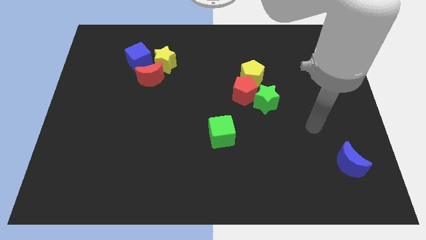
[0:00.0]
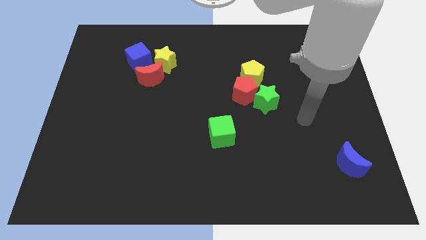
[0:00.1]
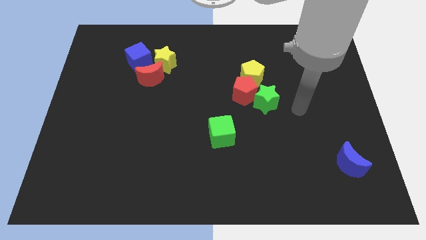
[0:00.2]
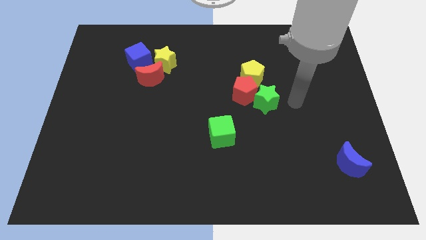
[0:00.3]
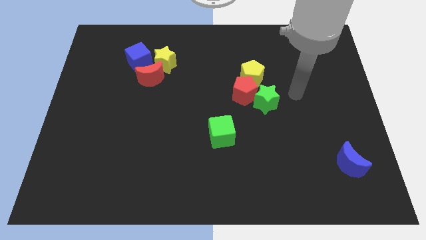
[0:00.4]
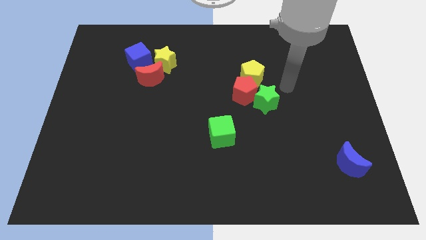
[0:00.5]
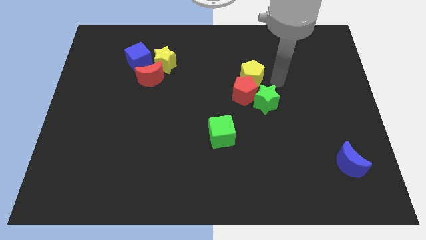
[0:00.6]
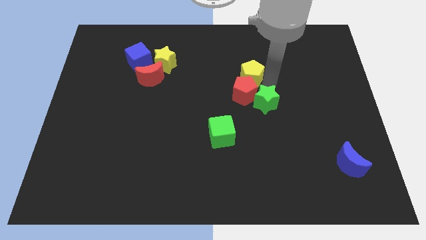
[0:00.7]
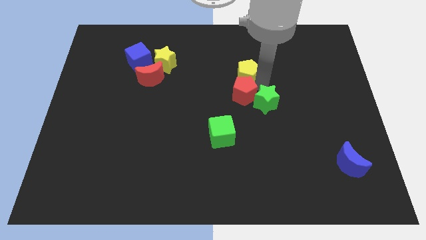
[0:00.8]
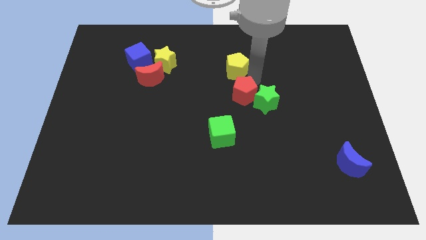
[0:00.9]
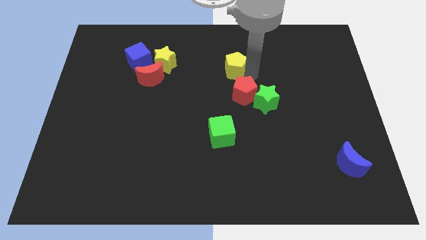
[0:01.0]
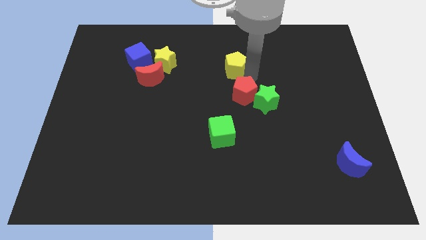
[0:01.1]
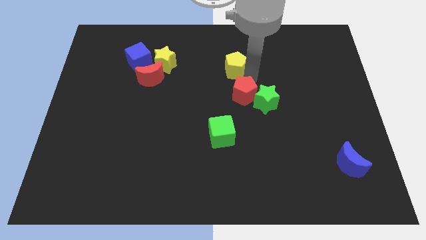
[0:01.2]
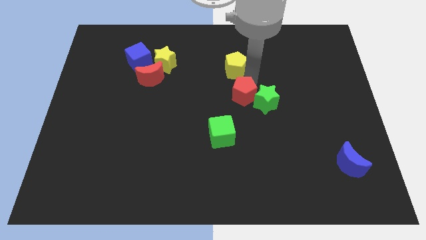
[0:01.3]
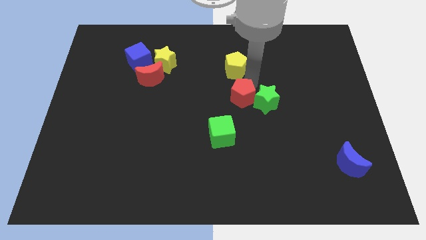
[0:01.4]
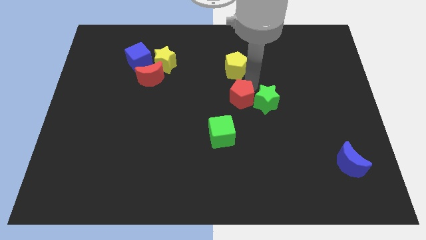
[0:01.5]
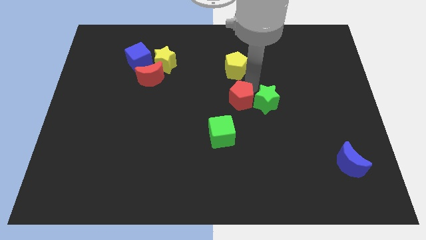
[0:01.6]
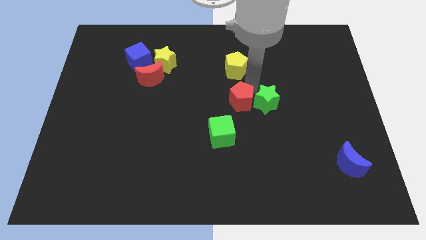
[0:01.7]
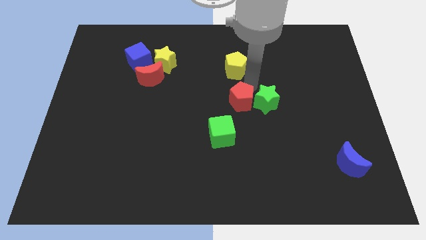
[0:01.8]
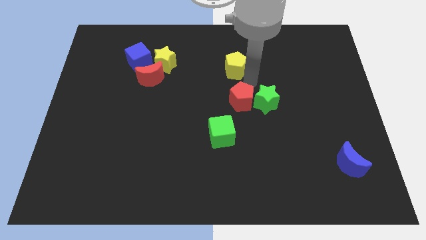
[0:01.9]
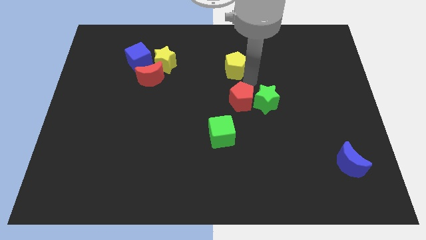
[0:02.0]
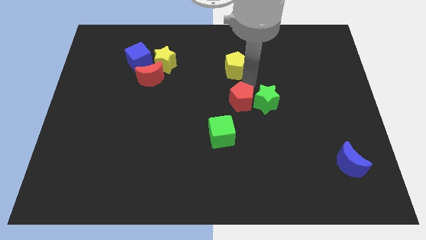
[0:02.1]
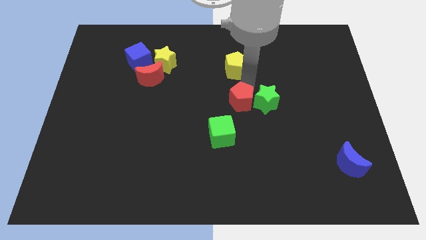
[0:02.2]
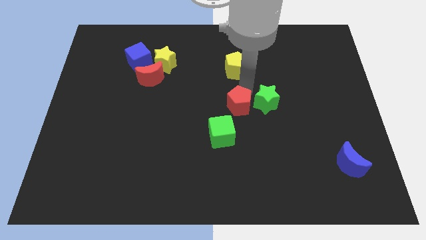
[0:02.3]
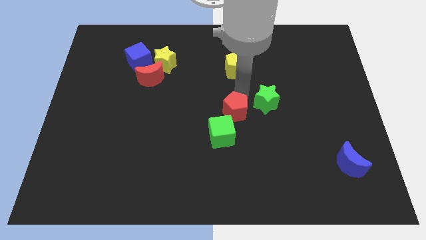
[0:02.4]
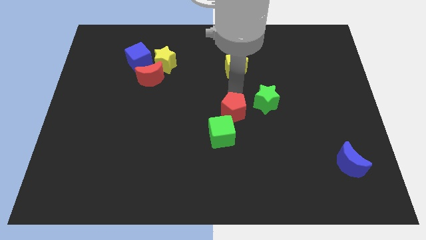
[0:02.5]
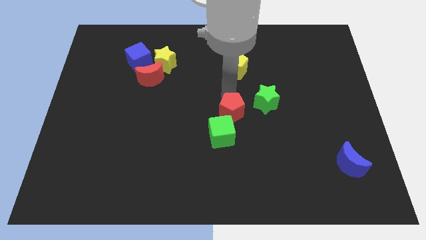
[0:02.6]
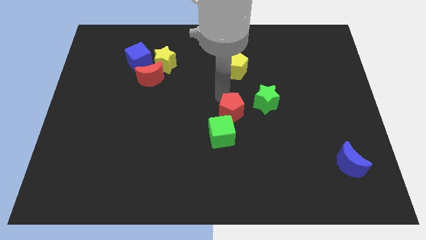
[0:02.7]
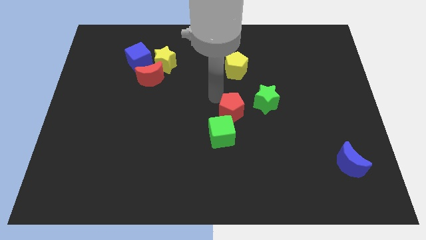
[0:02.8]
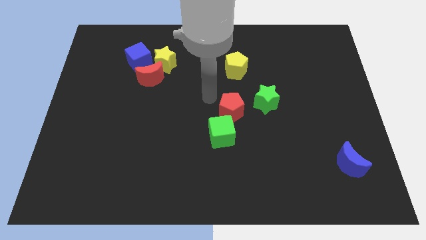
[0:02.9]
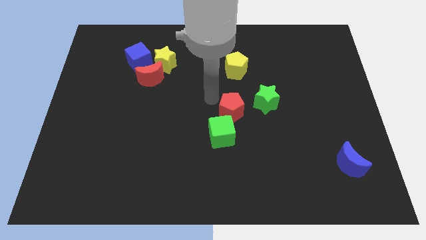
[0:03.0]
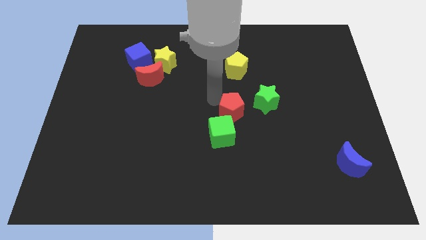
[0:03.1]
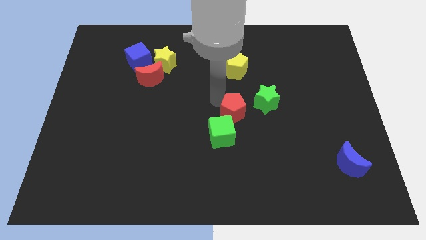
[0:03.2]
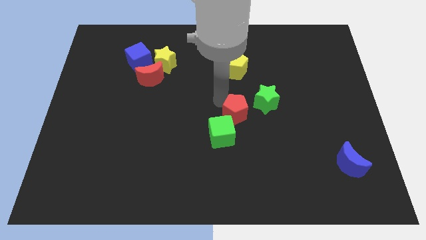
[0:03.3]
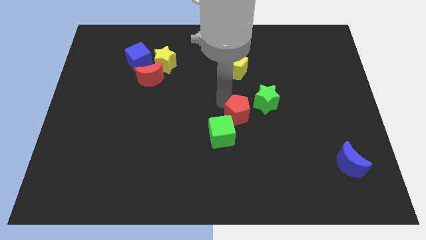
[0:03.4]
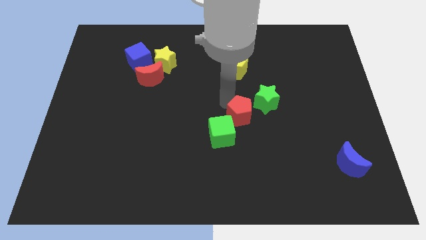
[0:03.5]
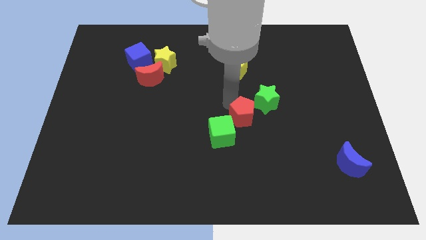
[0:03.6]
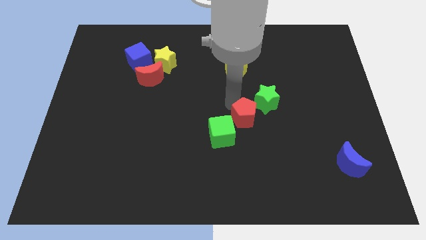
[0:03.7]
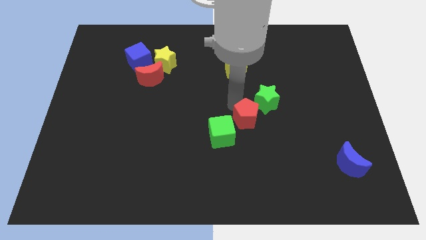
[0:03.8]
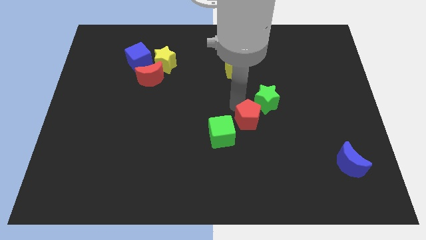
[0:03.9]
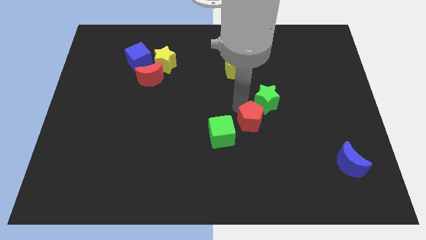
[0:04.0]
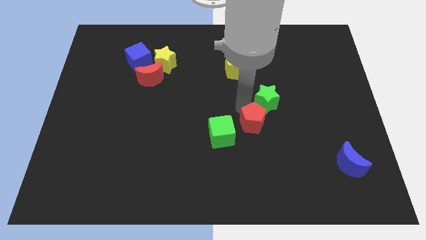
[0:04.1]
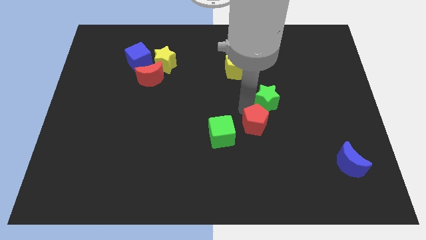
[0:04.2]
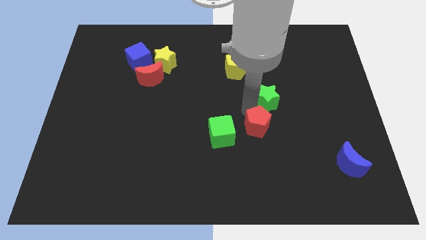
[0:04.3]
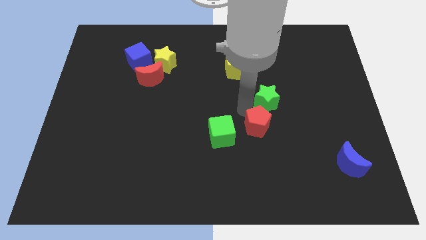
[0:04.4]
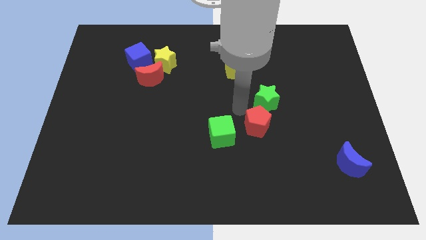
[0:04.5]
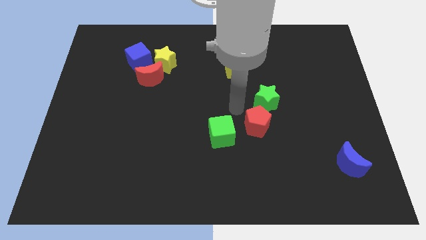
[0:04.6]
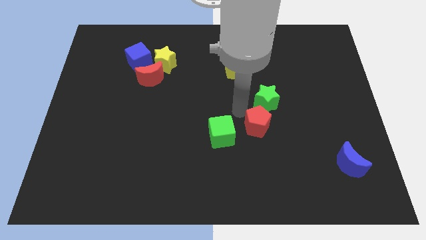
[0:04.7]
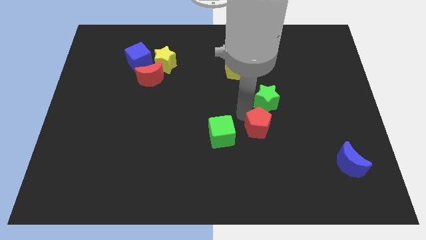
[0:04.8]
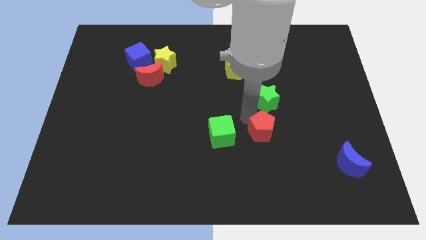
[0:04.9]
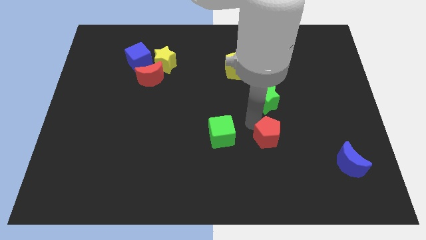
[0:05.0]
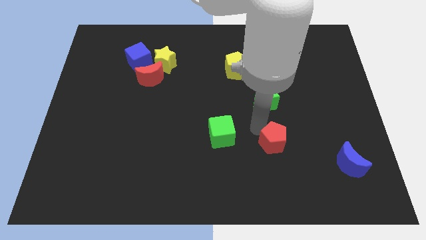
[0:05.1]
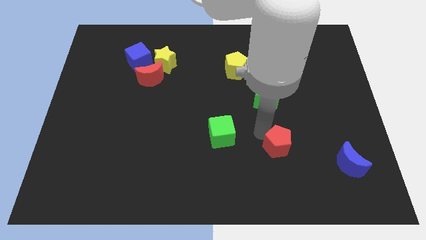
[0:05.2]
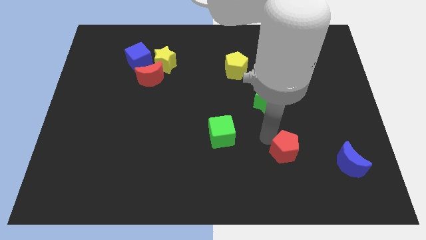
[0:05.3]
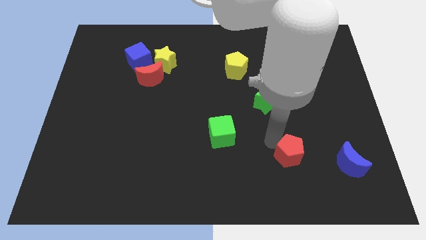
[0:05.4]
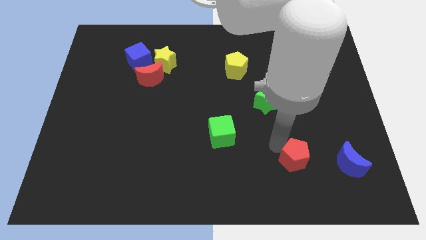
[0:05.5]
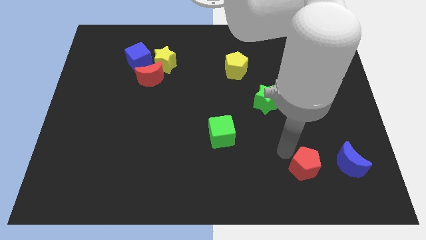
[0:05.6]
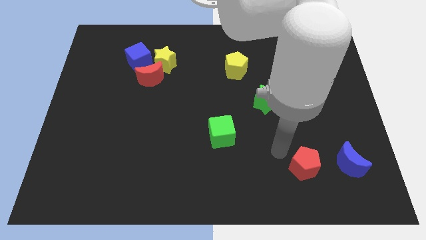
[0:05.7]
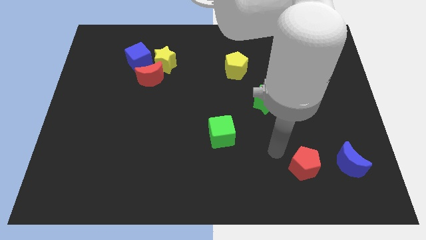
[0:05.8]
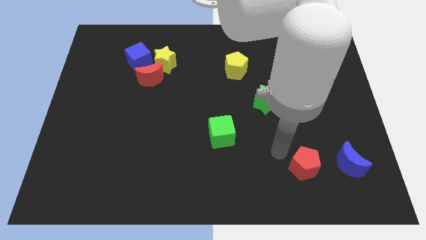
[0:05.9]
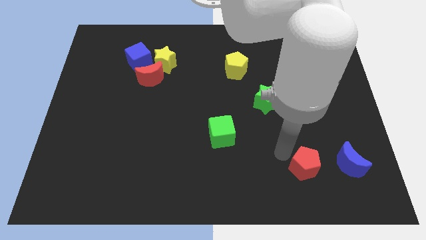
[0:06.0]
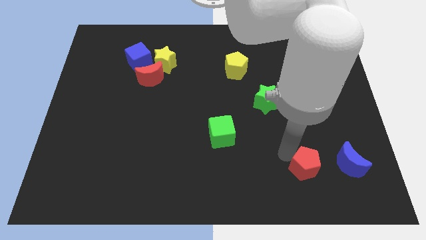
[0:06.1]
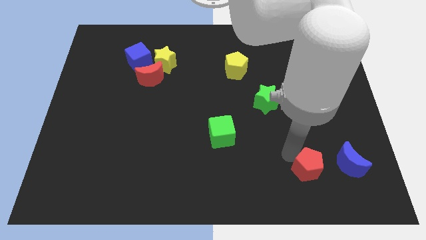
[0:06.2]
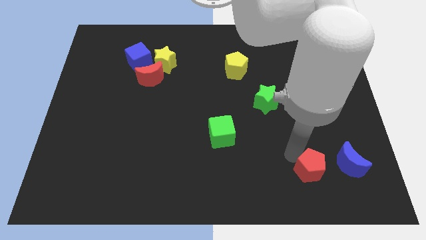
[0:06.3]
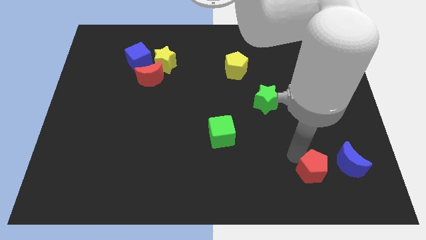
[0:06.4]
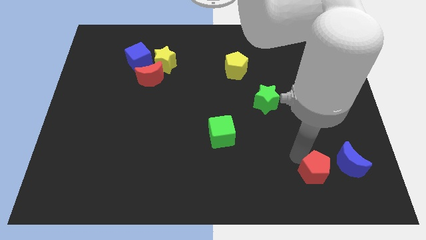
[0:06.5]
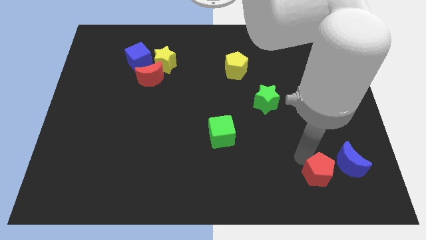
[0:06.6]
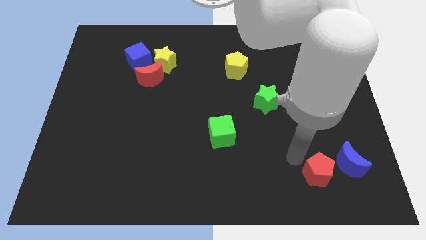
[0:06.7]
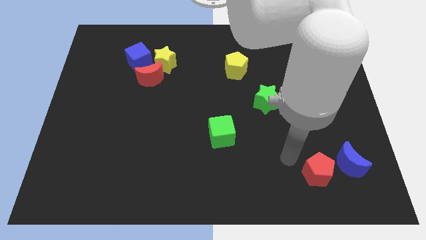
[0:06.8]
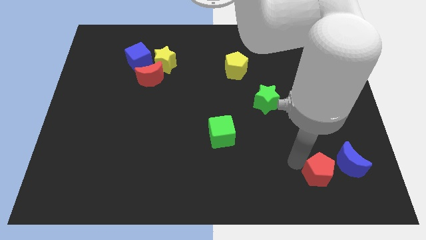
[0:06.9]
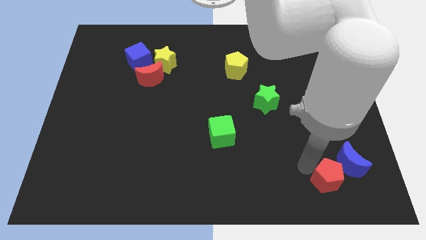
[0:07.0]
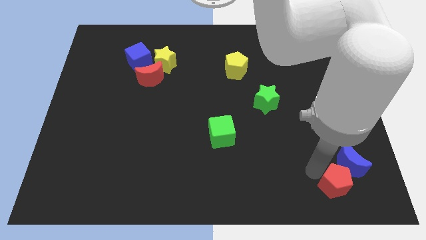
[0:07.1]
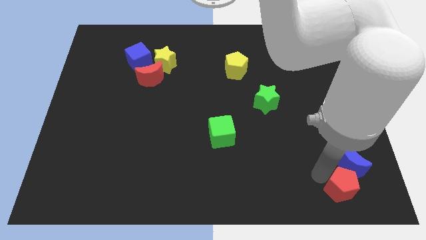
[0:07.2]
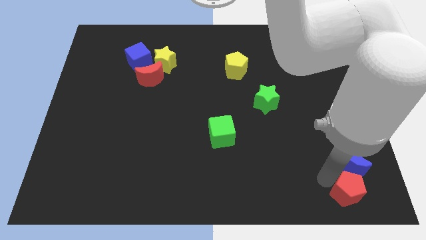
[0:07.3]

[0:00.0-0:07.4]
move the red pentagon to the lower right corner
